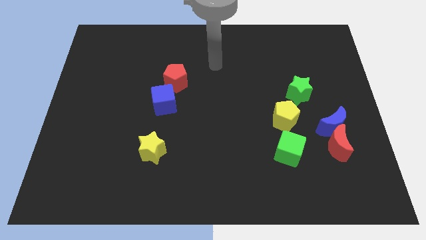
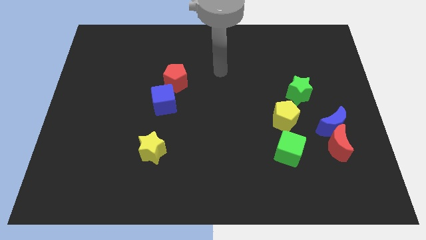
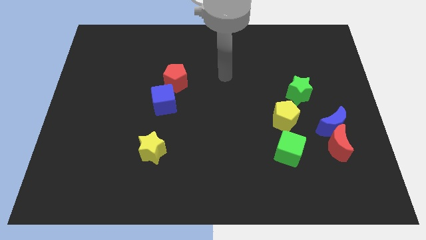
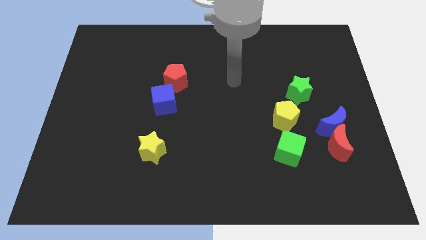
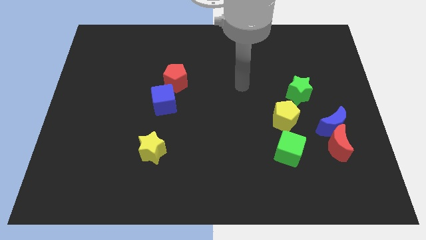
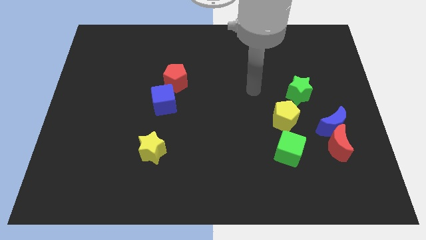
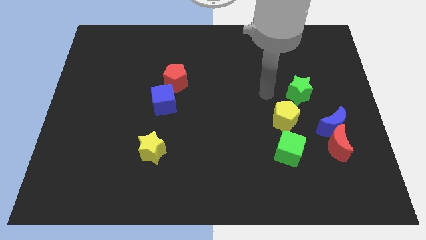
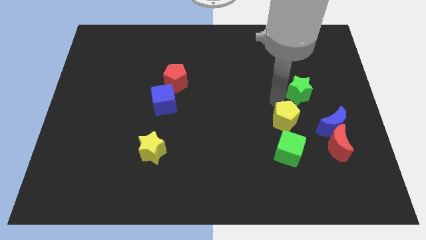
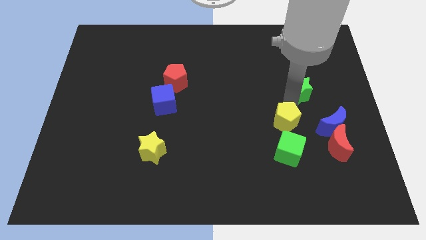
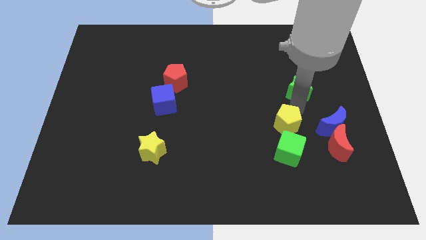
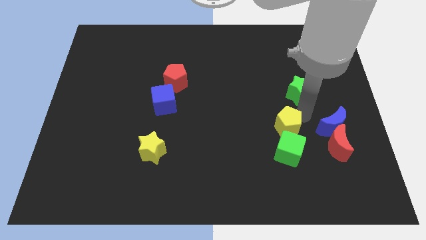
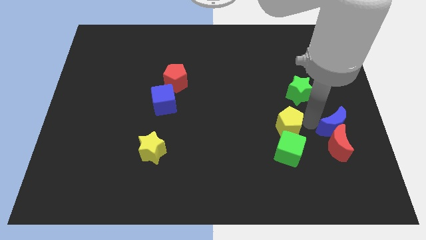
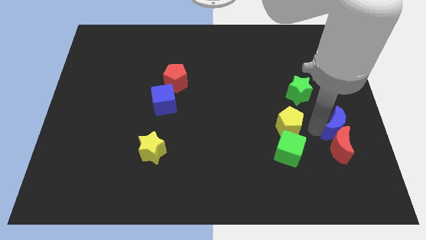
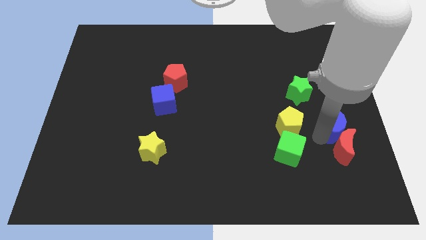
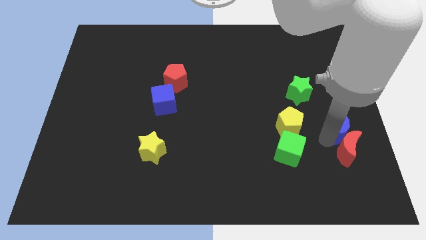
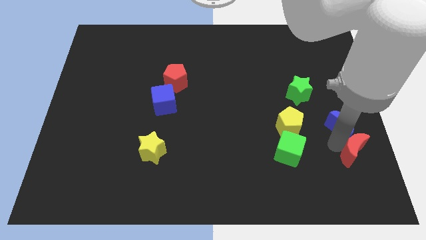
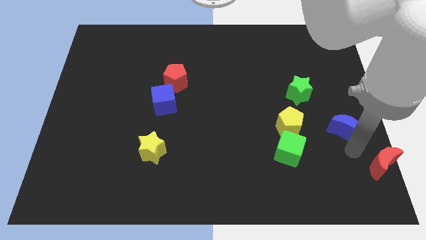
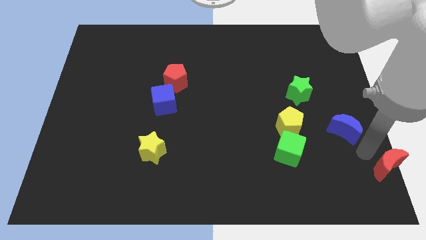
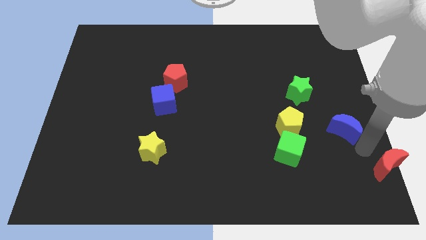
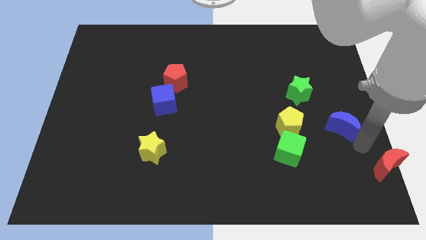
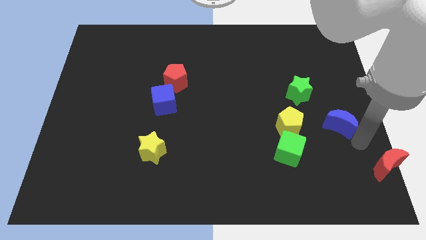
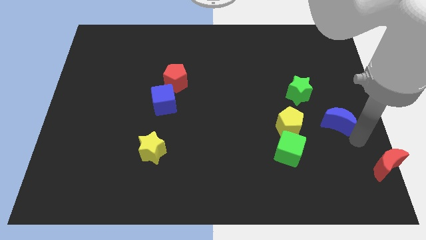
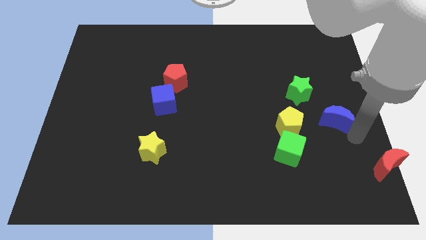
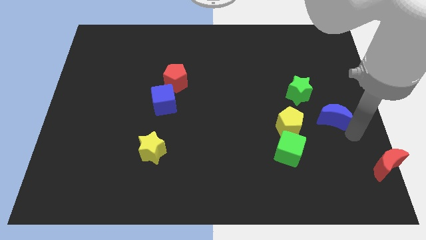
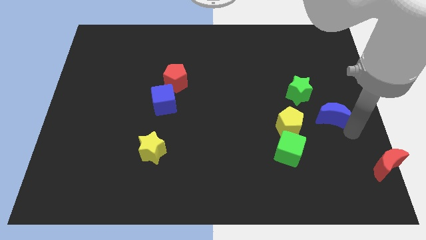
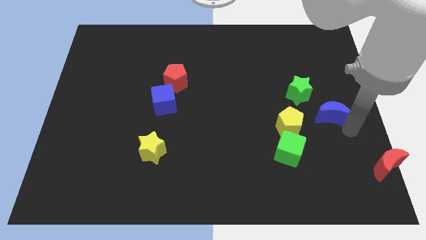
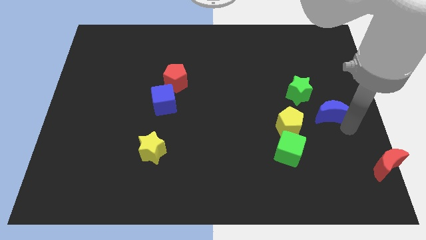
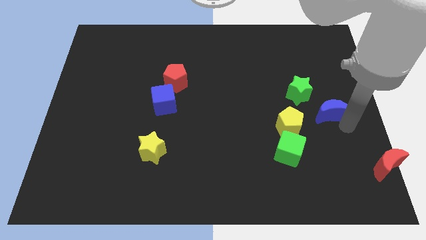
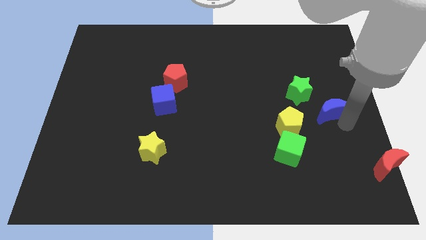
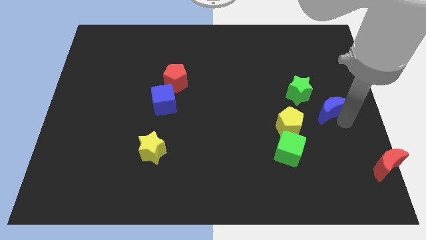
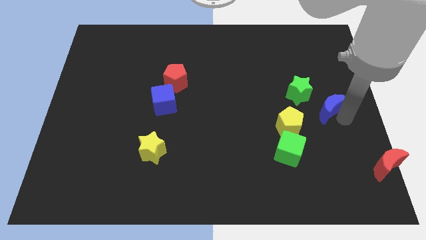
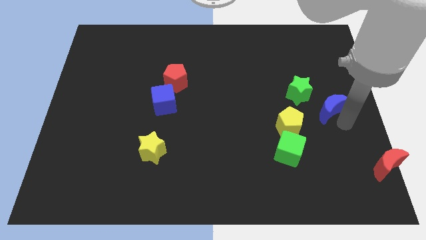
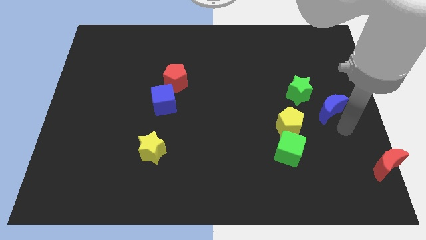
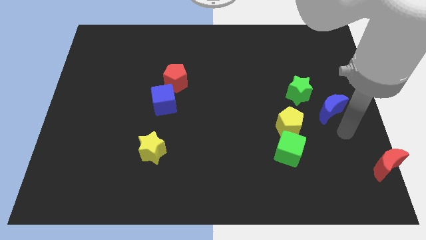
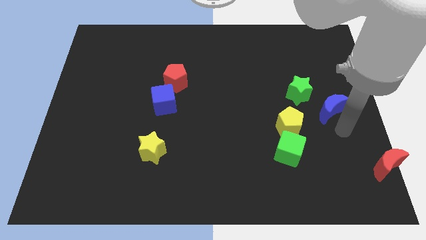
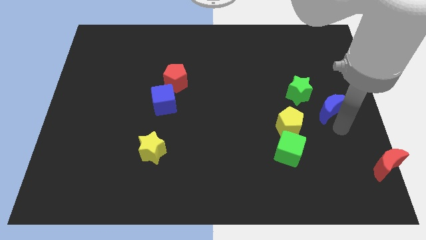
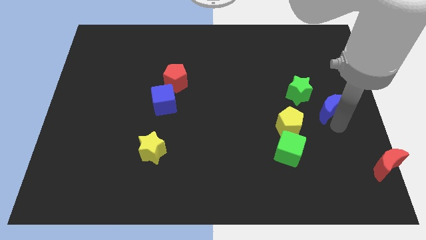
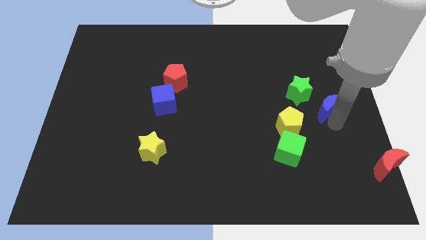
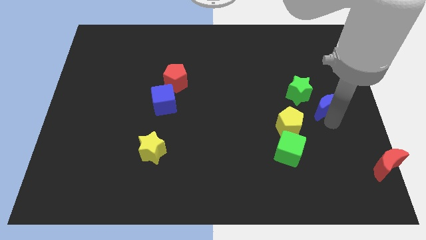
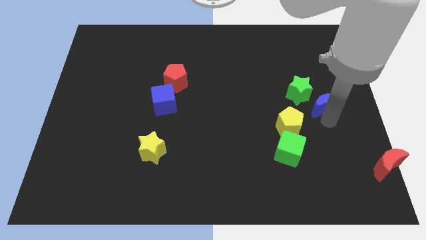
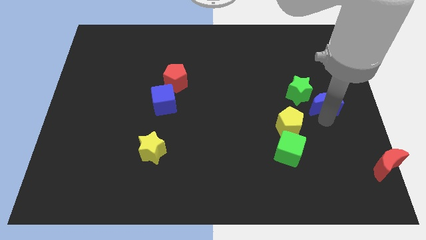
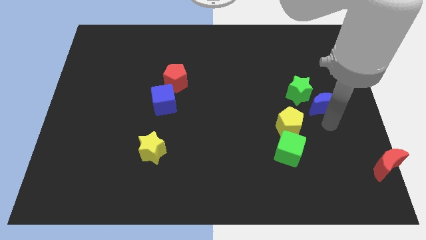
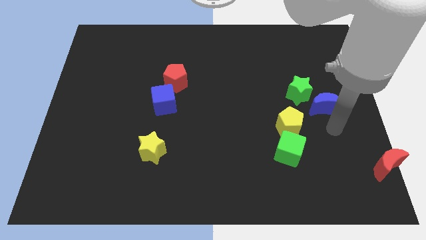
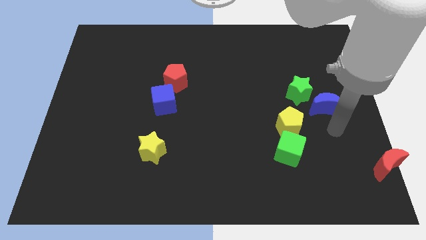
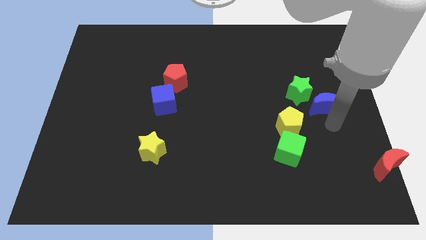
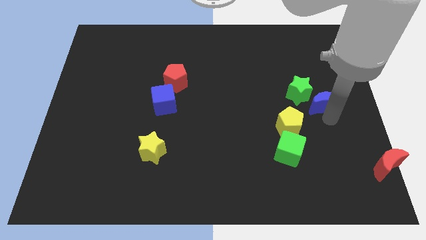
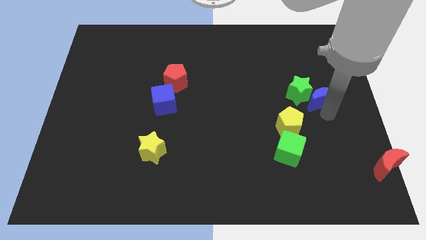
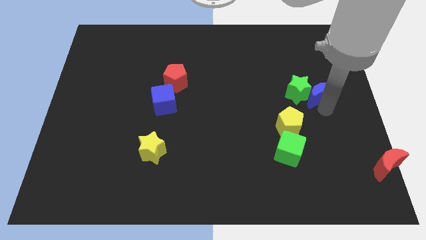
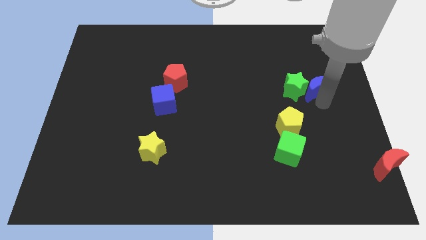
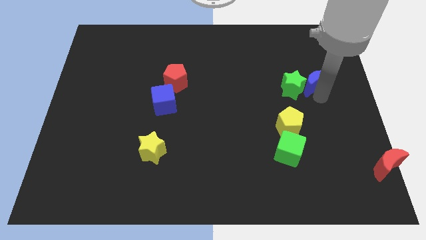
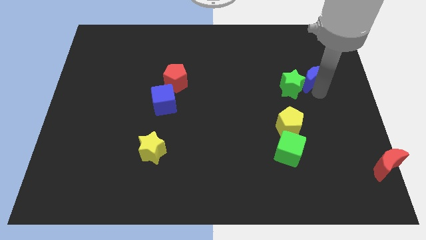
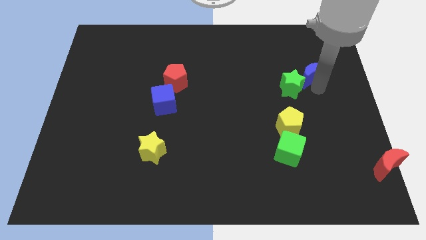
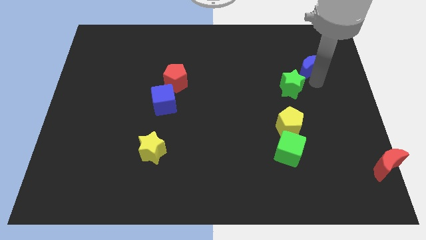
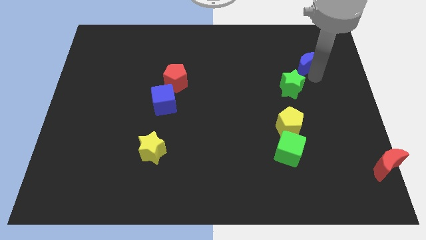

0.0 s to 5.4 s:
push the blue moon to the top of the green star
